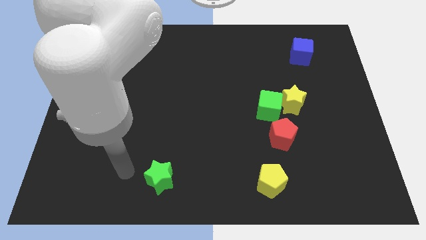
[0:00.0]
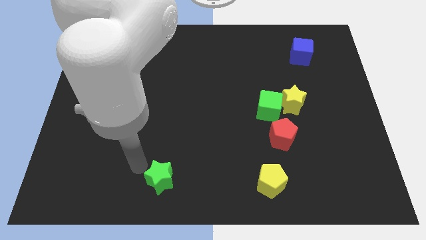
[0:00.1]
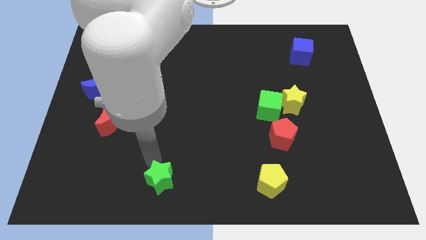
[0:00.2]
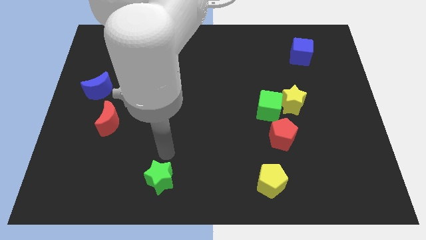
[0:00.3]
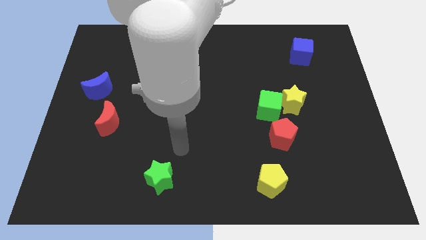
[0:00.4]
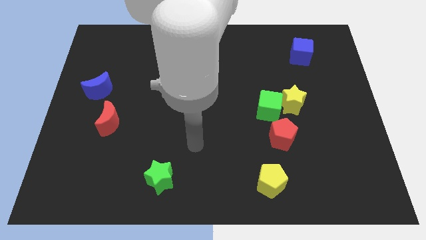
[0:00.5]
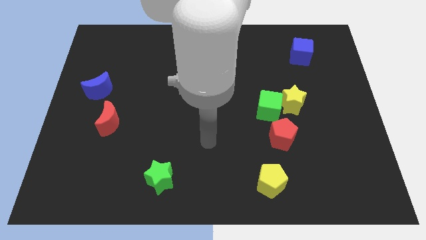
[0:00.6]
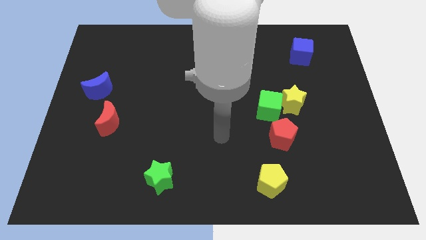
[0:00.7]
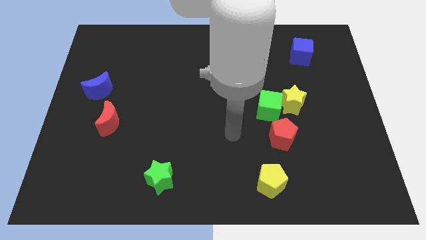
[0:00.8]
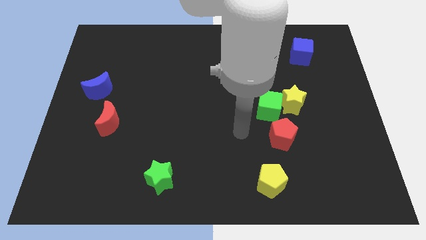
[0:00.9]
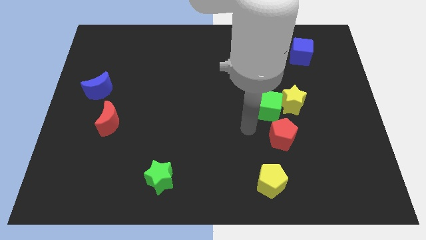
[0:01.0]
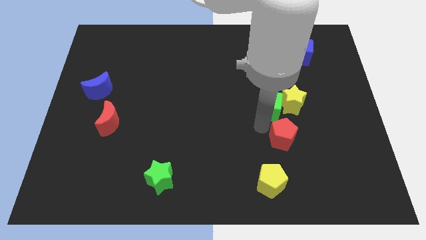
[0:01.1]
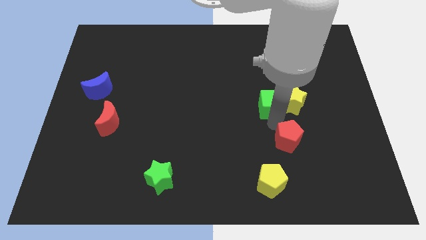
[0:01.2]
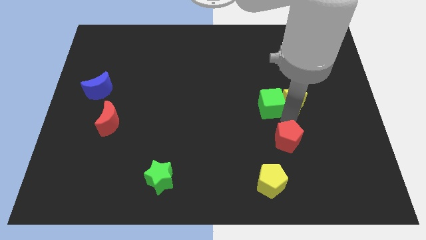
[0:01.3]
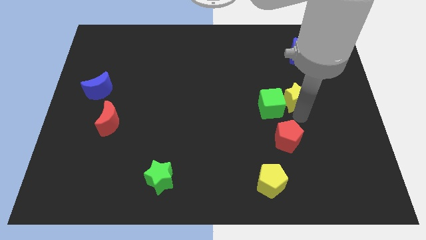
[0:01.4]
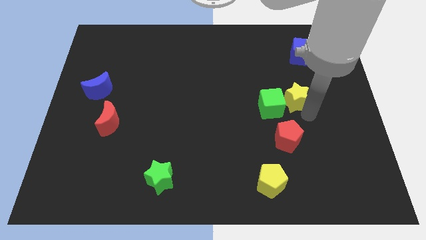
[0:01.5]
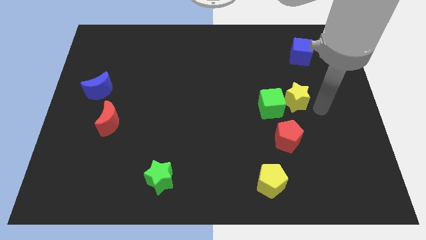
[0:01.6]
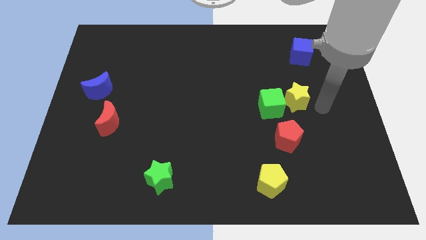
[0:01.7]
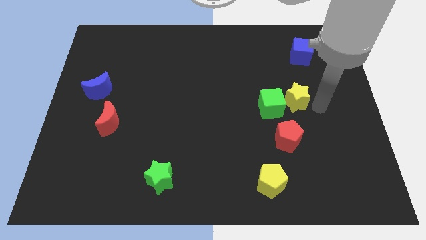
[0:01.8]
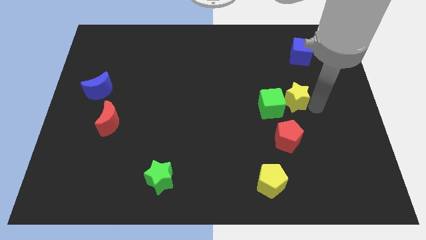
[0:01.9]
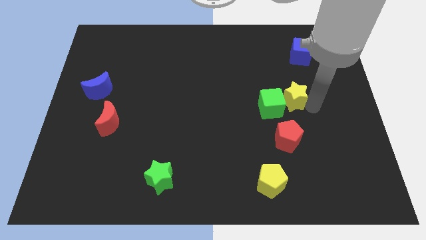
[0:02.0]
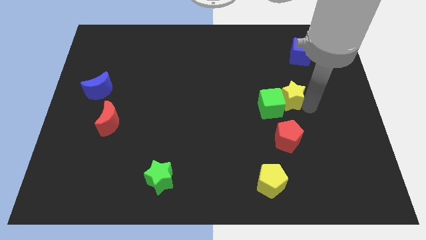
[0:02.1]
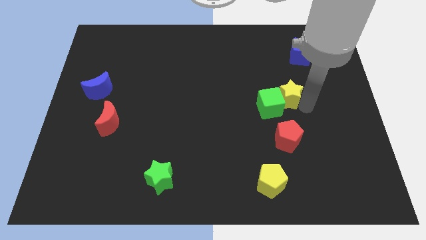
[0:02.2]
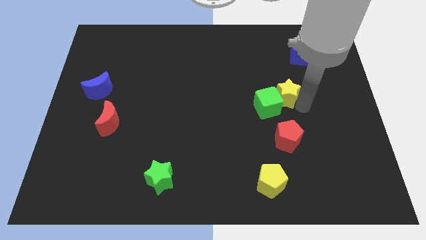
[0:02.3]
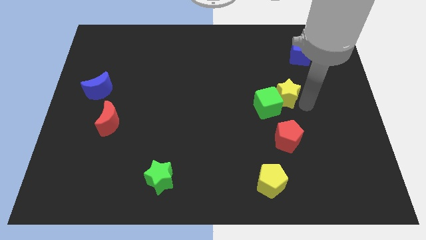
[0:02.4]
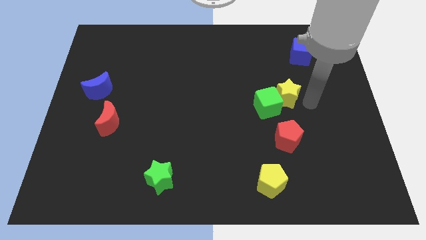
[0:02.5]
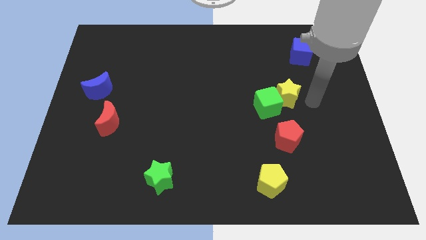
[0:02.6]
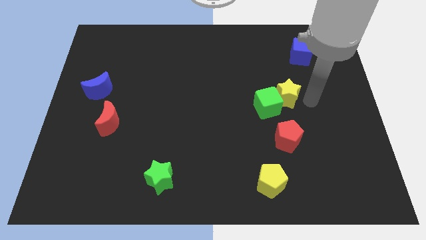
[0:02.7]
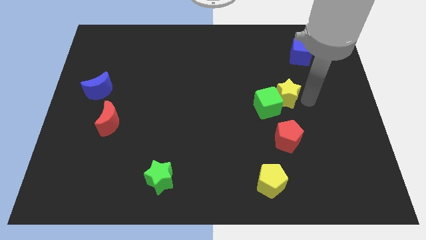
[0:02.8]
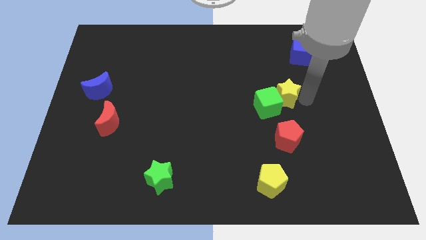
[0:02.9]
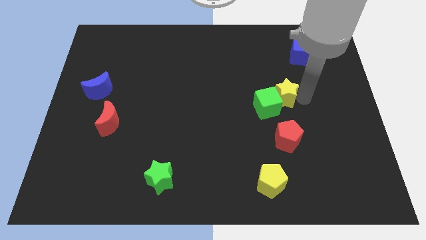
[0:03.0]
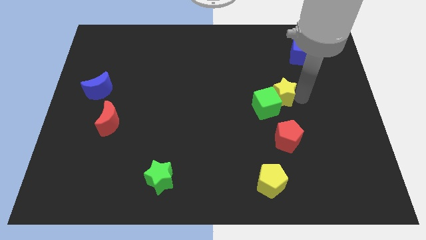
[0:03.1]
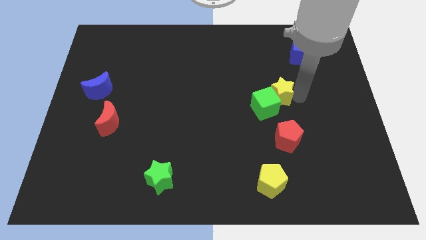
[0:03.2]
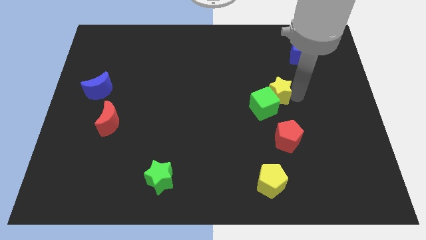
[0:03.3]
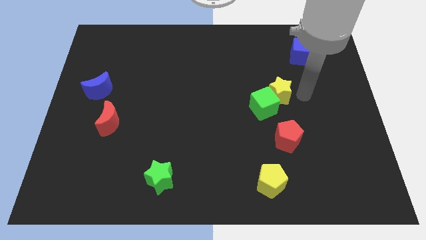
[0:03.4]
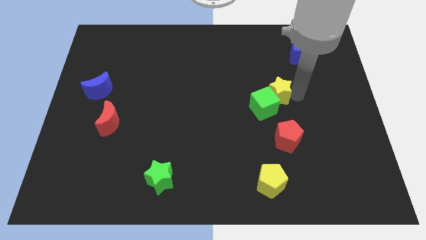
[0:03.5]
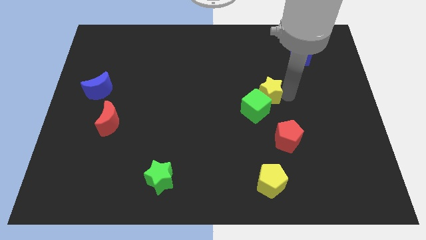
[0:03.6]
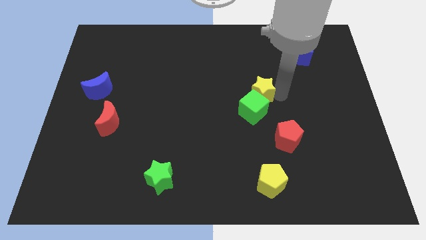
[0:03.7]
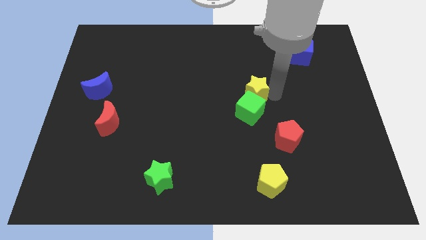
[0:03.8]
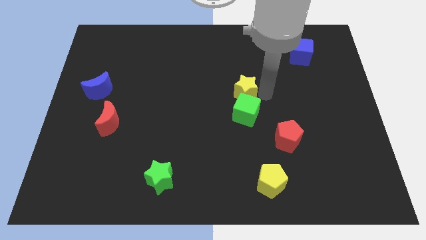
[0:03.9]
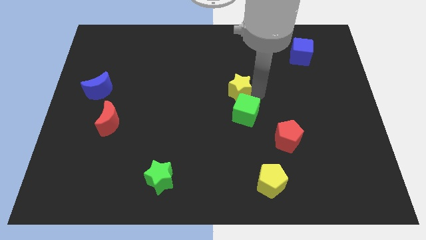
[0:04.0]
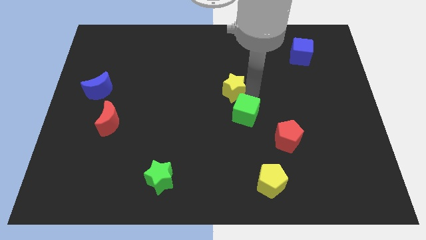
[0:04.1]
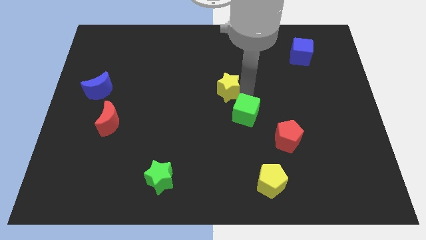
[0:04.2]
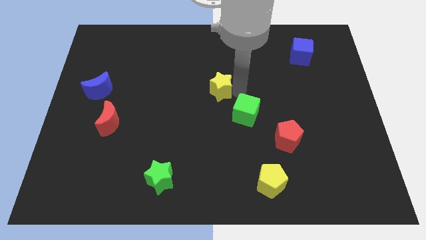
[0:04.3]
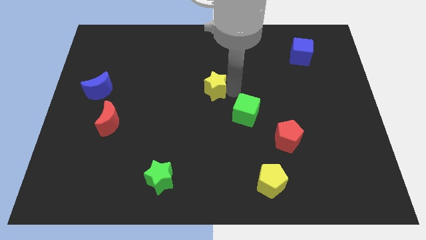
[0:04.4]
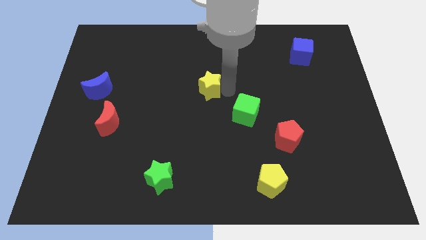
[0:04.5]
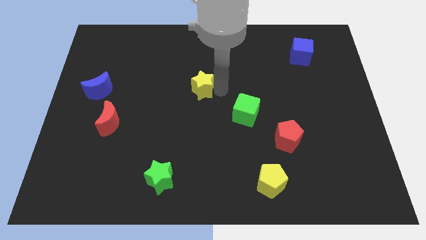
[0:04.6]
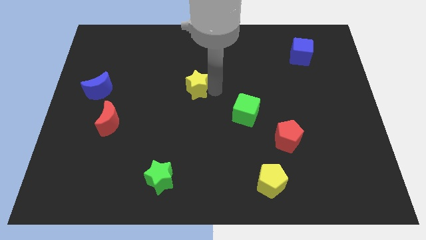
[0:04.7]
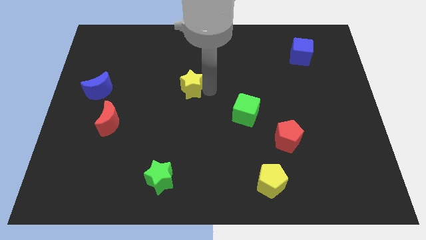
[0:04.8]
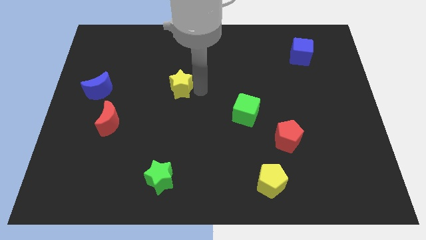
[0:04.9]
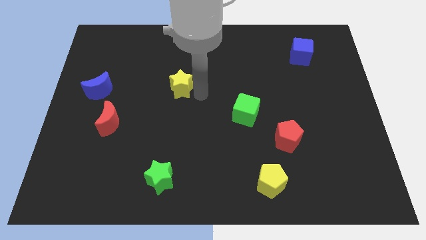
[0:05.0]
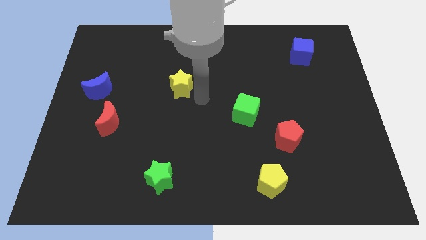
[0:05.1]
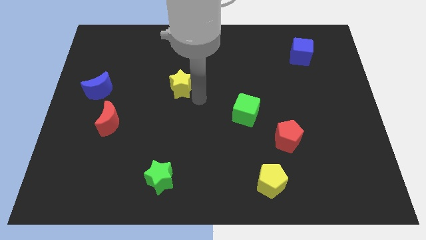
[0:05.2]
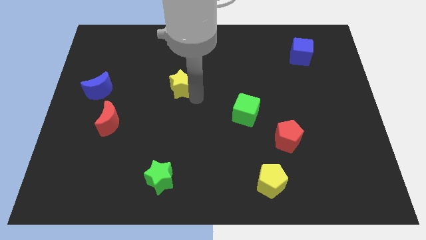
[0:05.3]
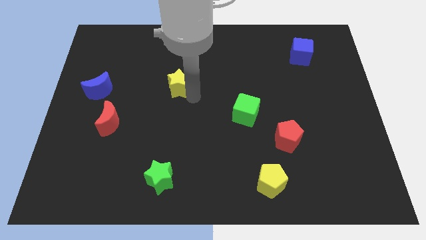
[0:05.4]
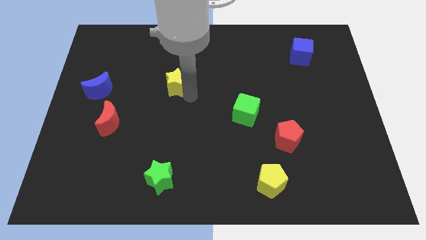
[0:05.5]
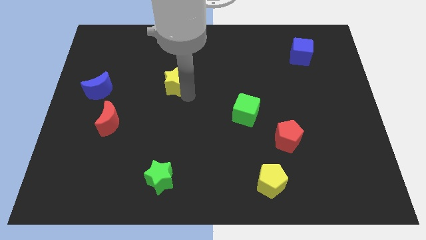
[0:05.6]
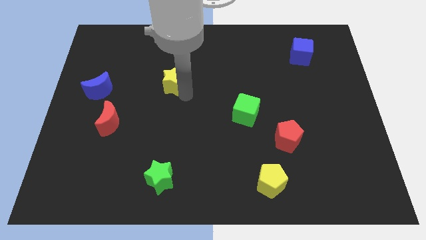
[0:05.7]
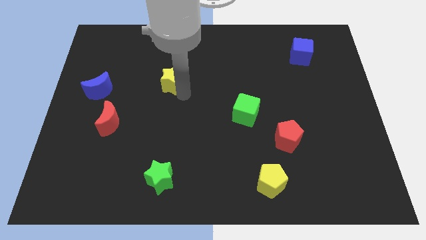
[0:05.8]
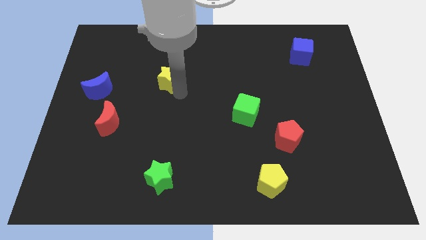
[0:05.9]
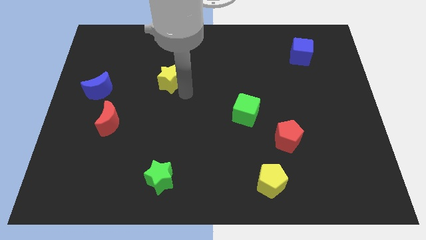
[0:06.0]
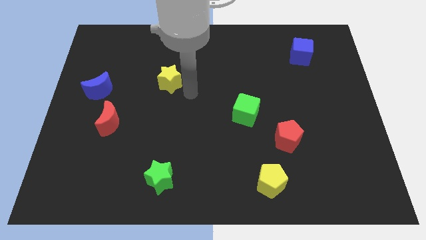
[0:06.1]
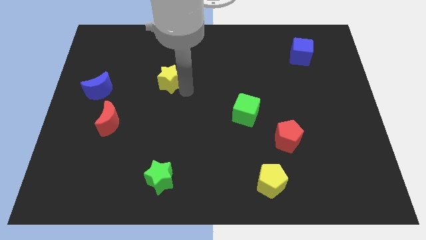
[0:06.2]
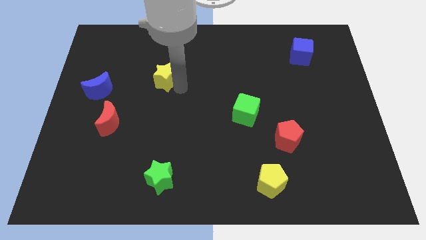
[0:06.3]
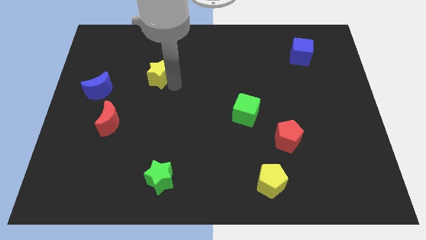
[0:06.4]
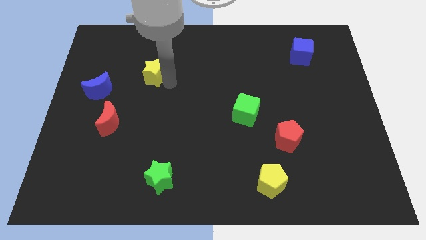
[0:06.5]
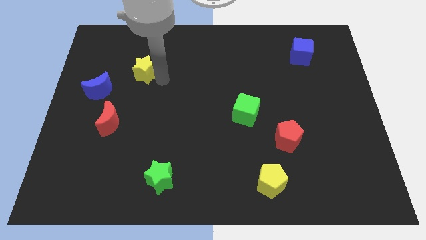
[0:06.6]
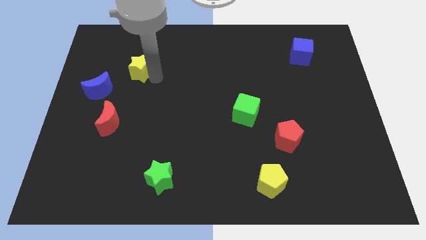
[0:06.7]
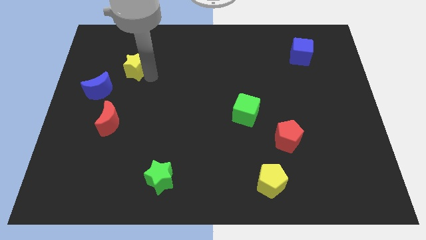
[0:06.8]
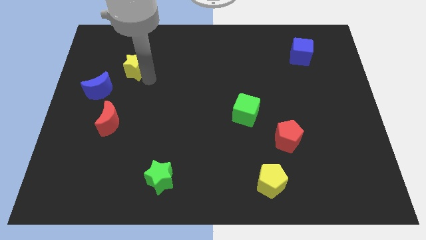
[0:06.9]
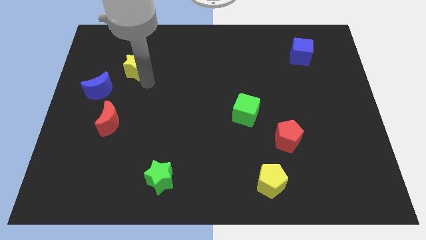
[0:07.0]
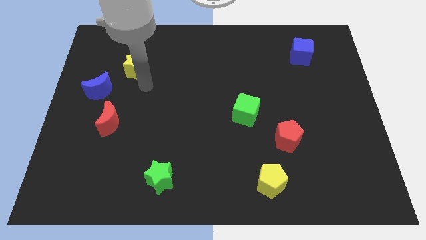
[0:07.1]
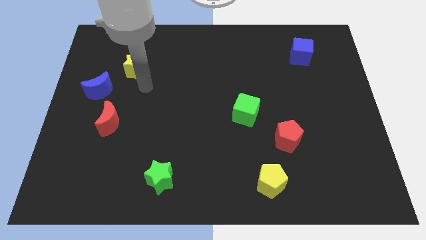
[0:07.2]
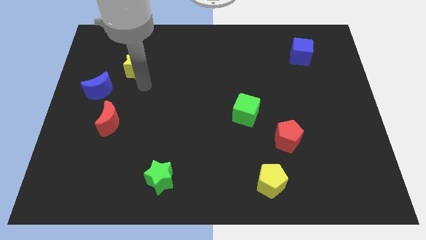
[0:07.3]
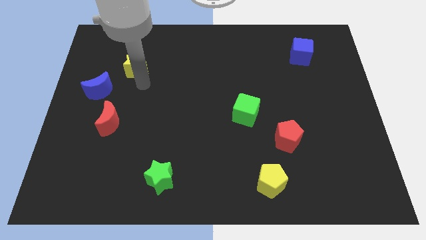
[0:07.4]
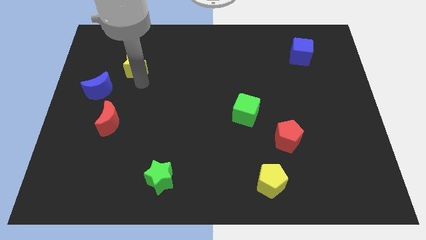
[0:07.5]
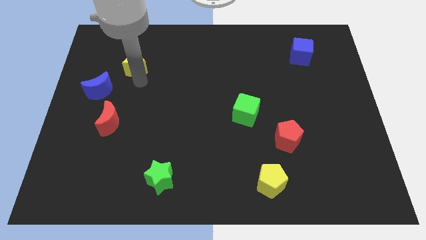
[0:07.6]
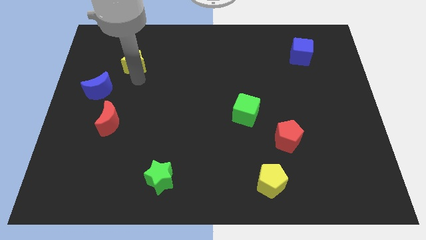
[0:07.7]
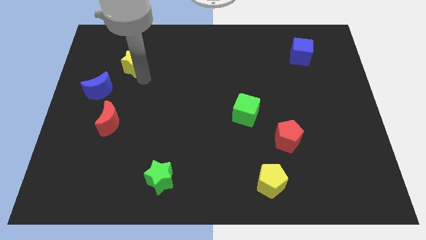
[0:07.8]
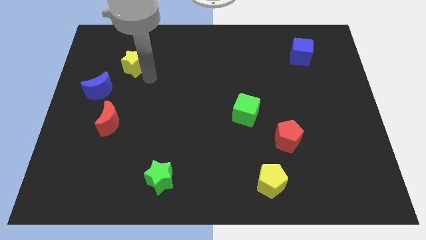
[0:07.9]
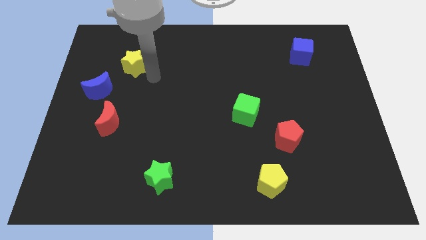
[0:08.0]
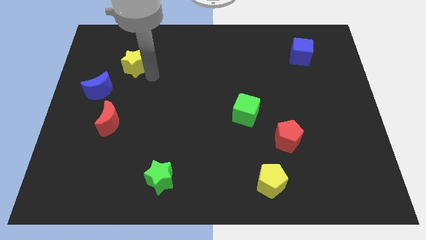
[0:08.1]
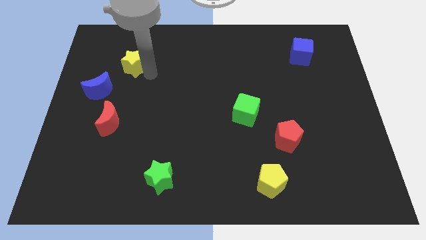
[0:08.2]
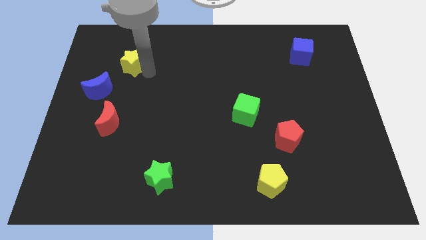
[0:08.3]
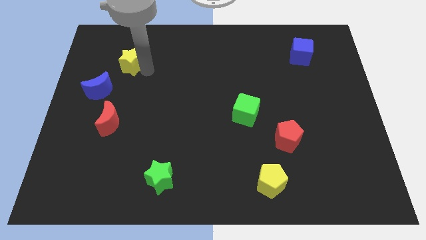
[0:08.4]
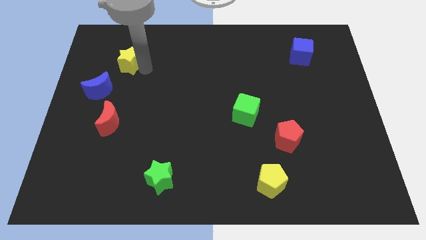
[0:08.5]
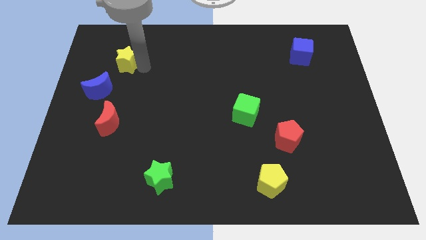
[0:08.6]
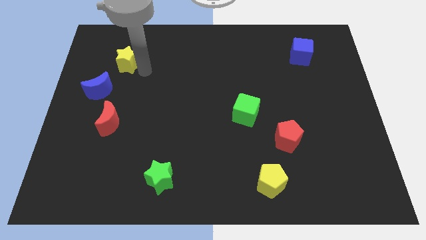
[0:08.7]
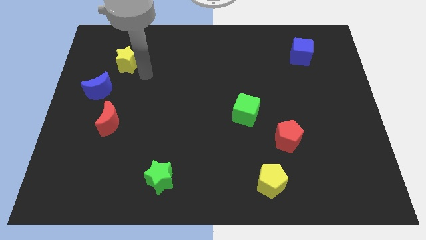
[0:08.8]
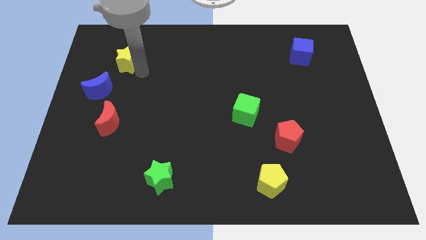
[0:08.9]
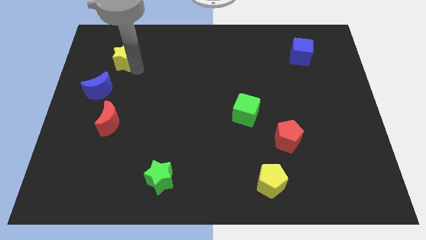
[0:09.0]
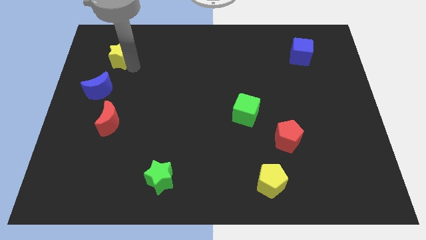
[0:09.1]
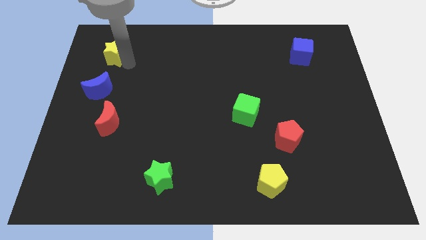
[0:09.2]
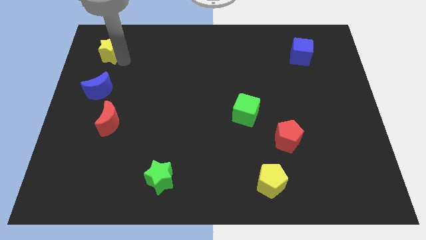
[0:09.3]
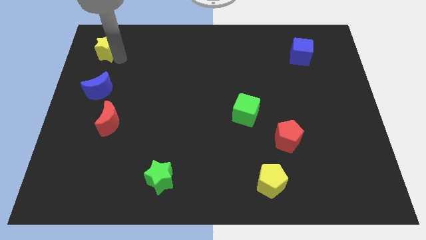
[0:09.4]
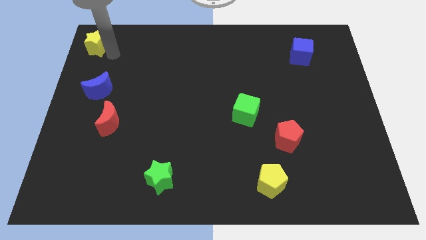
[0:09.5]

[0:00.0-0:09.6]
slide the yellow star to the upper left corner
